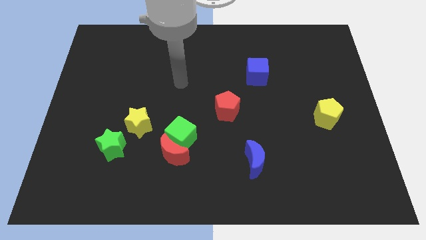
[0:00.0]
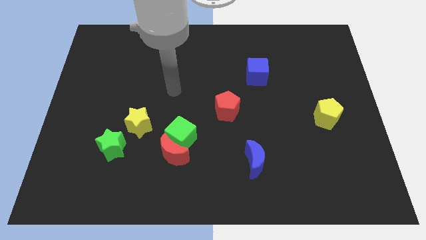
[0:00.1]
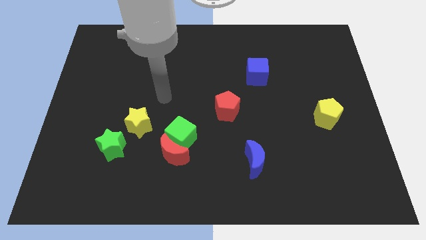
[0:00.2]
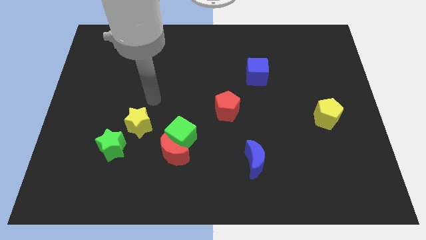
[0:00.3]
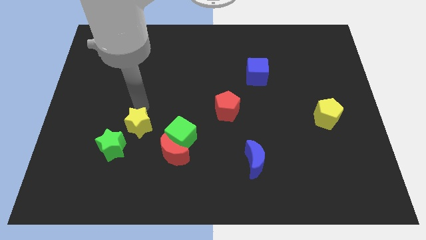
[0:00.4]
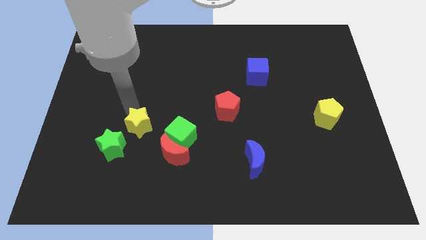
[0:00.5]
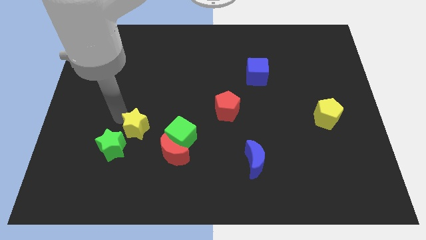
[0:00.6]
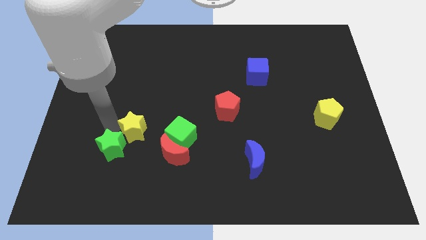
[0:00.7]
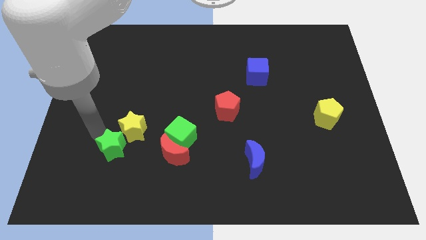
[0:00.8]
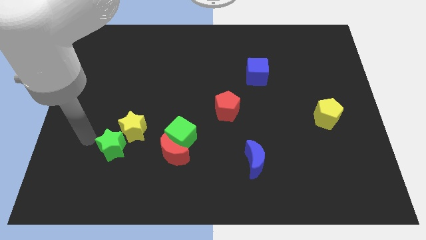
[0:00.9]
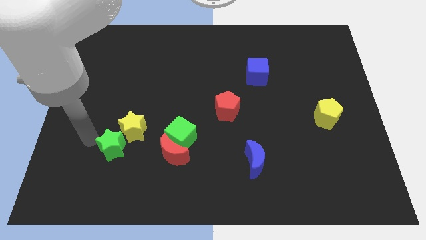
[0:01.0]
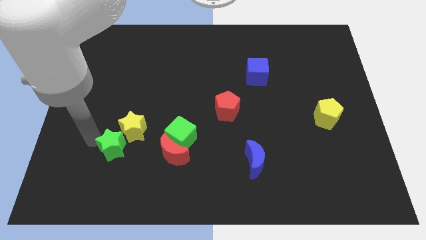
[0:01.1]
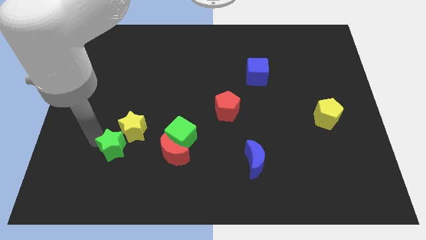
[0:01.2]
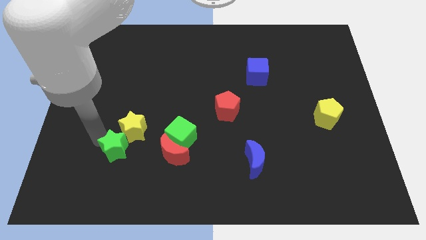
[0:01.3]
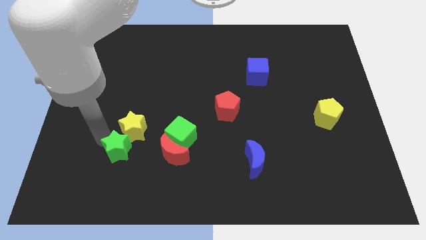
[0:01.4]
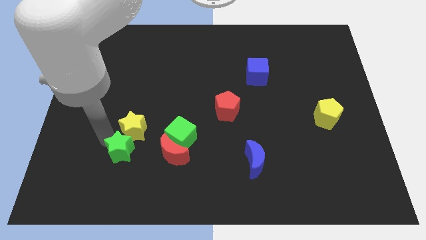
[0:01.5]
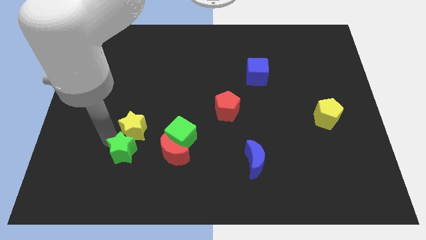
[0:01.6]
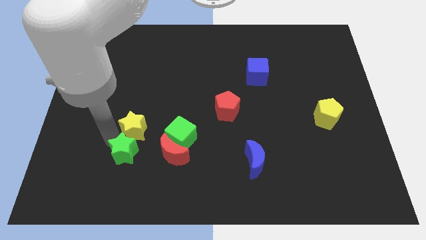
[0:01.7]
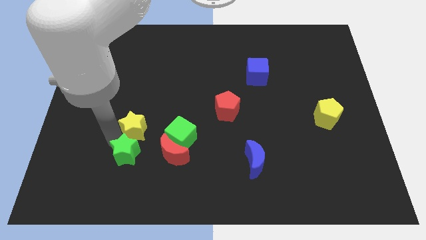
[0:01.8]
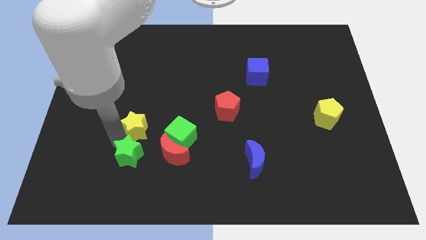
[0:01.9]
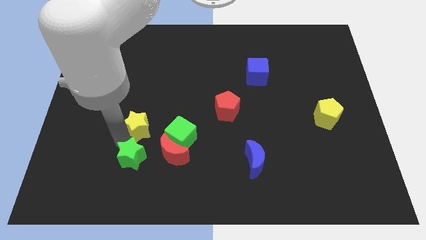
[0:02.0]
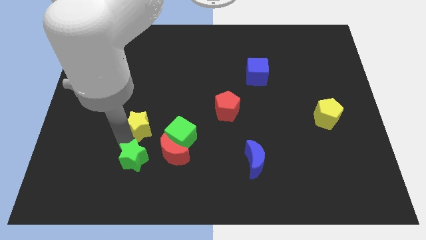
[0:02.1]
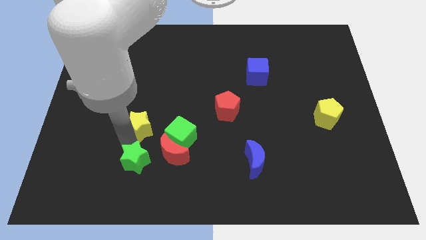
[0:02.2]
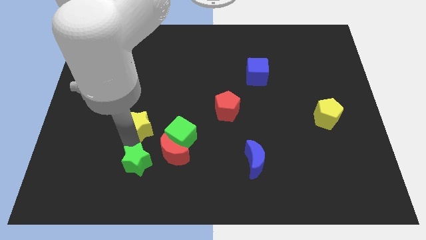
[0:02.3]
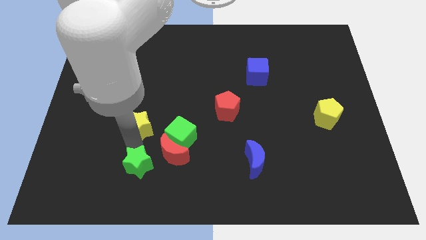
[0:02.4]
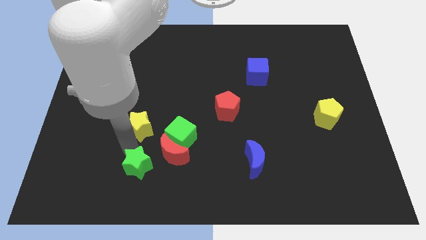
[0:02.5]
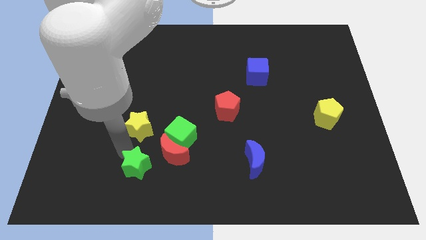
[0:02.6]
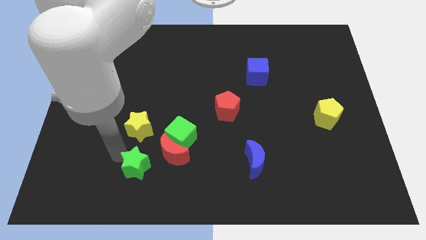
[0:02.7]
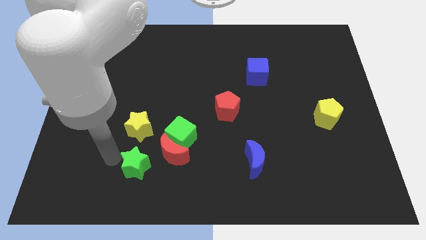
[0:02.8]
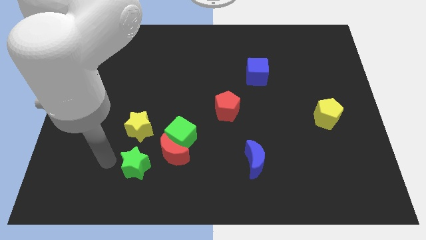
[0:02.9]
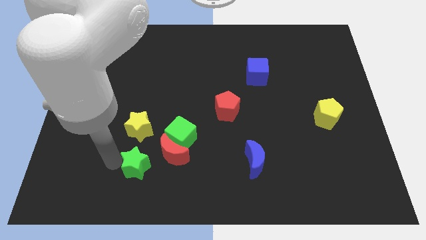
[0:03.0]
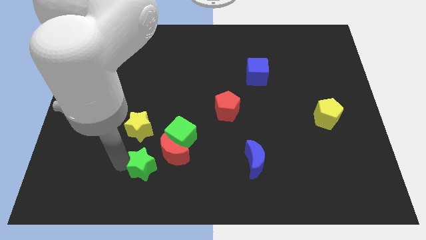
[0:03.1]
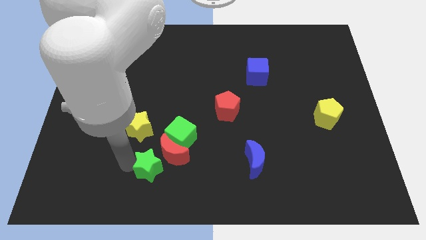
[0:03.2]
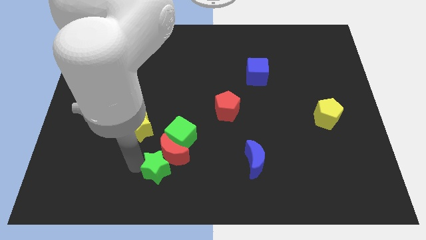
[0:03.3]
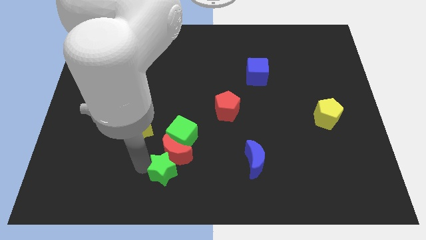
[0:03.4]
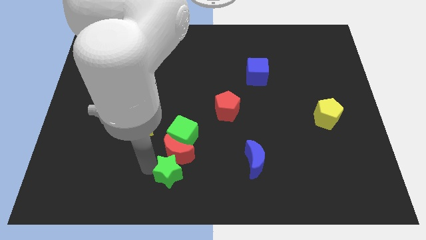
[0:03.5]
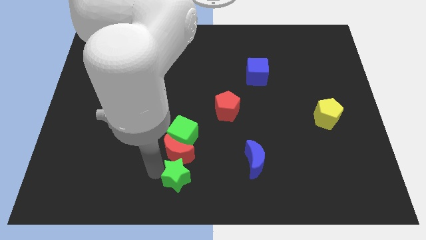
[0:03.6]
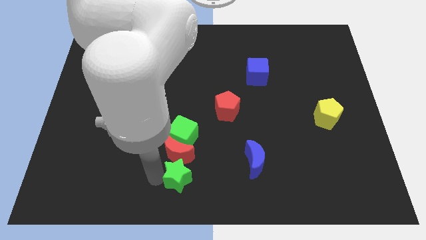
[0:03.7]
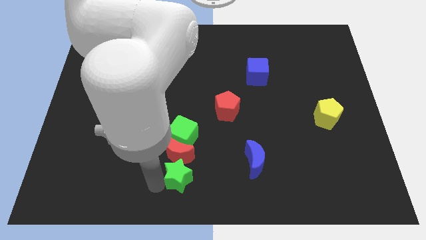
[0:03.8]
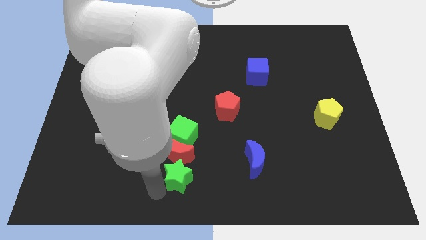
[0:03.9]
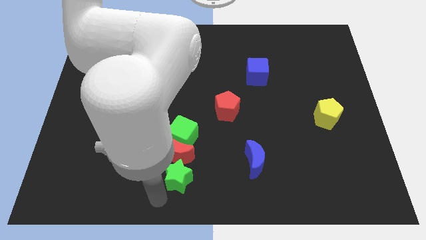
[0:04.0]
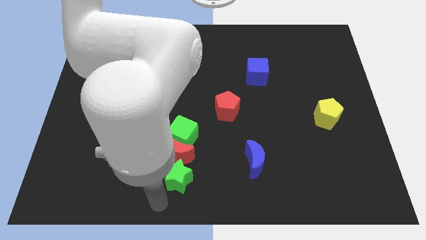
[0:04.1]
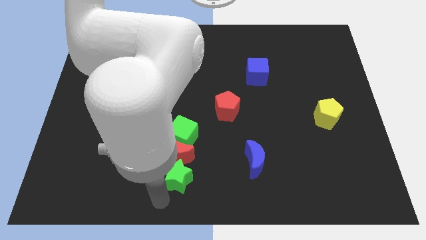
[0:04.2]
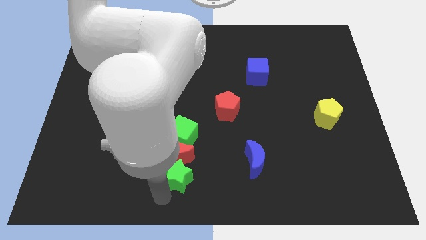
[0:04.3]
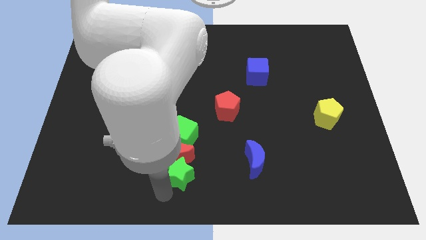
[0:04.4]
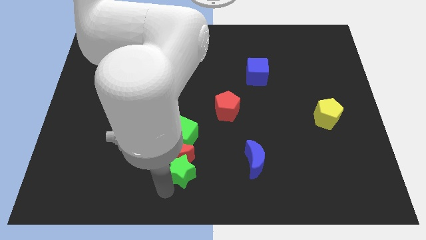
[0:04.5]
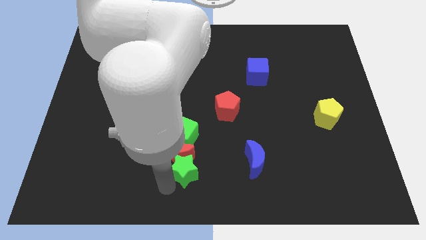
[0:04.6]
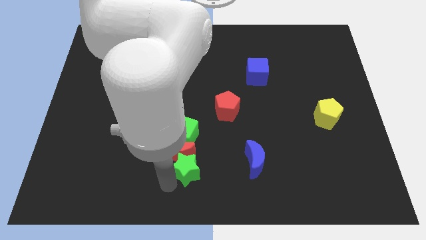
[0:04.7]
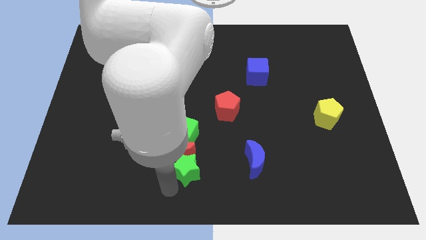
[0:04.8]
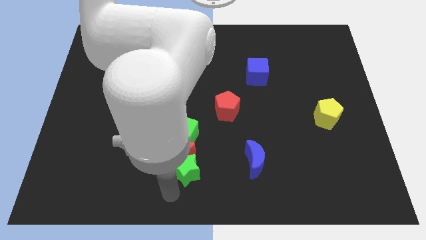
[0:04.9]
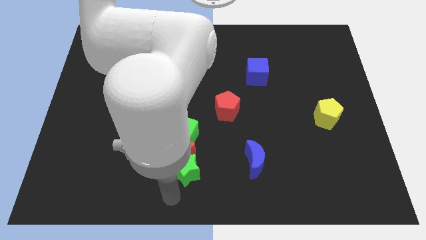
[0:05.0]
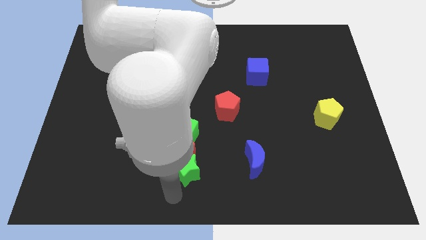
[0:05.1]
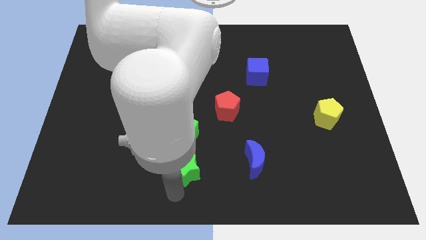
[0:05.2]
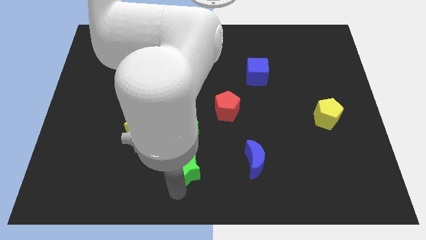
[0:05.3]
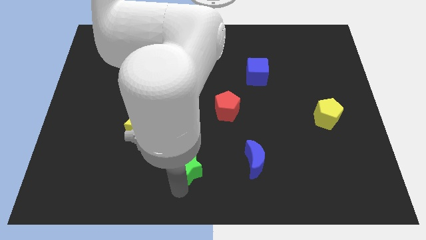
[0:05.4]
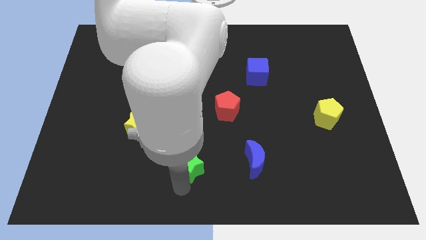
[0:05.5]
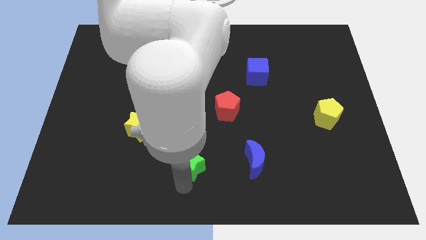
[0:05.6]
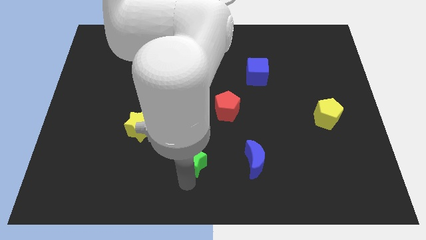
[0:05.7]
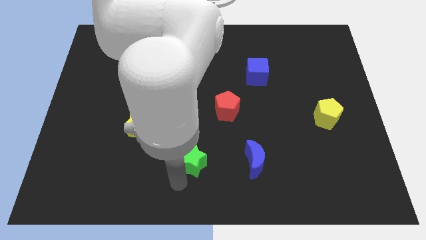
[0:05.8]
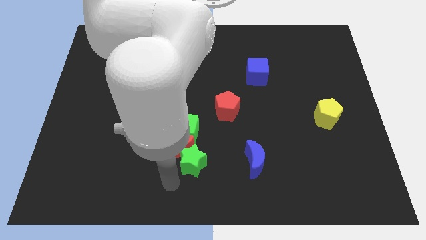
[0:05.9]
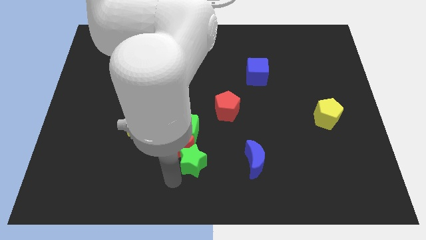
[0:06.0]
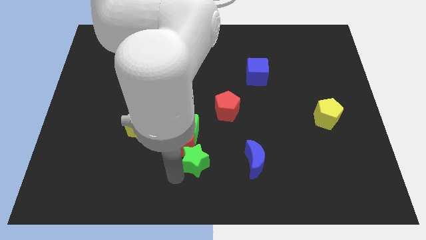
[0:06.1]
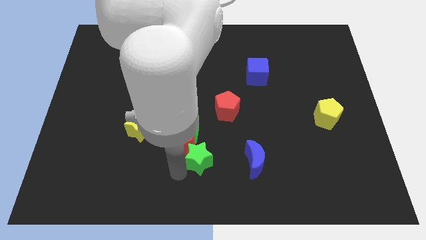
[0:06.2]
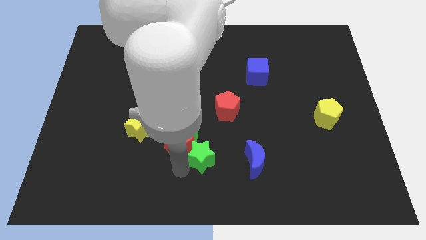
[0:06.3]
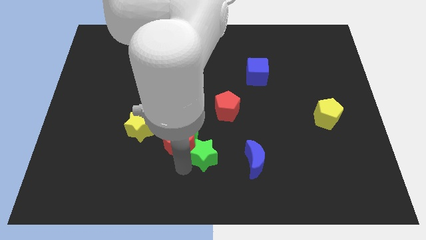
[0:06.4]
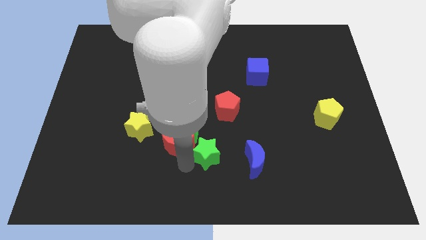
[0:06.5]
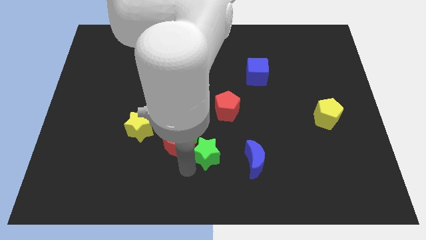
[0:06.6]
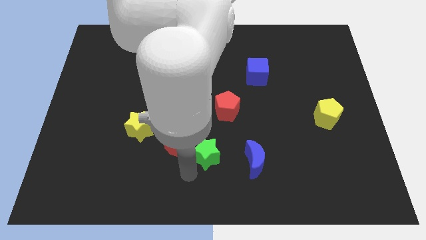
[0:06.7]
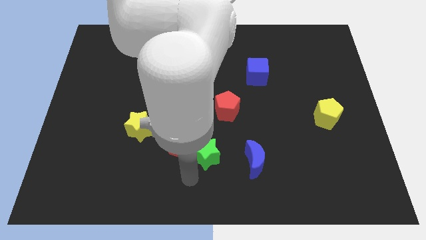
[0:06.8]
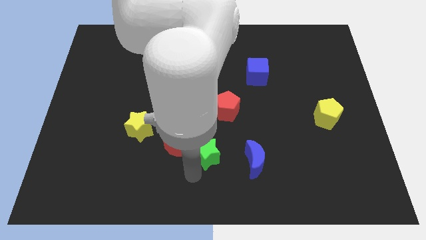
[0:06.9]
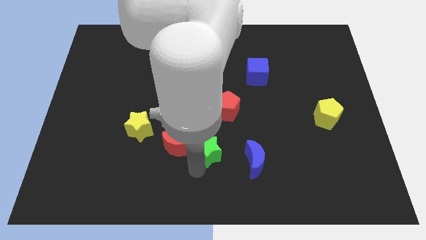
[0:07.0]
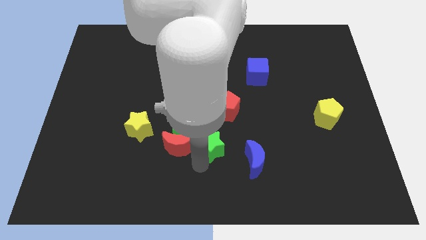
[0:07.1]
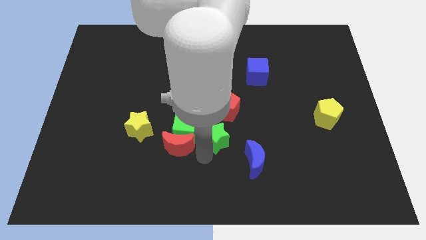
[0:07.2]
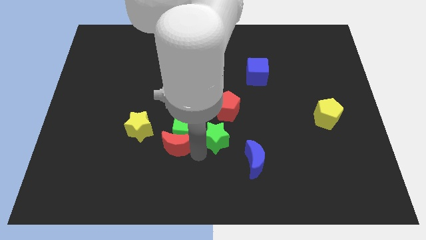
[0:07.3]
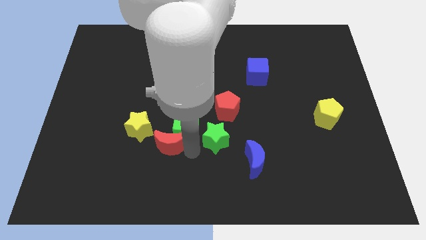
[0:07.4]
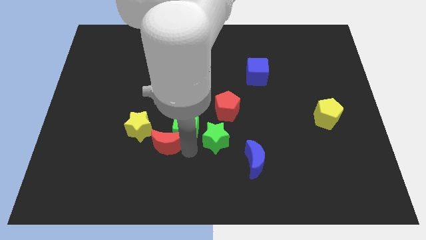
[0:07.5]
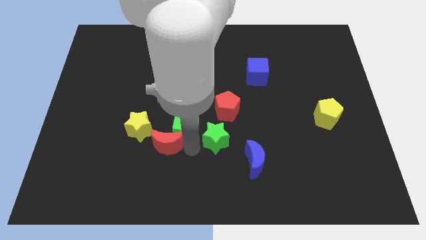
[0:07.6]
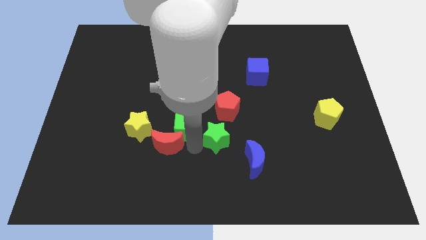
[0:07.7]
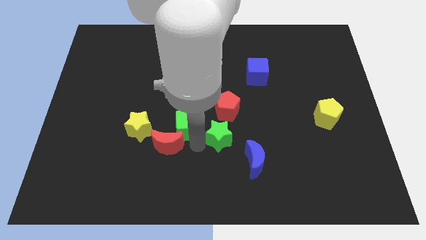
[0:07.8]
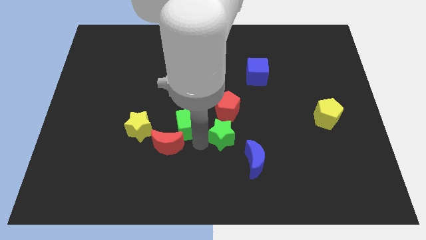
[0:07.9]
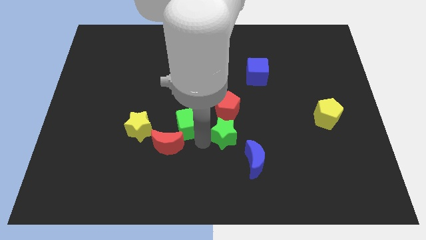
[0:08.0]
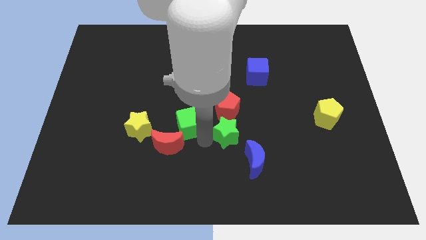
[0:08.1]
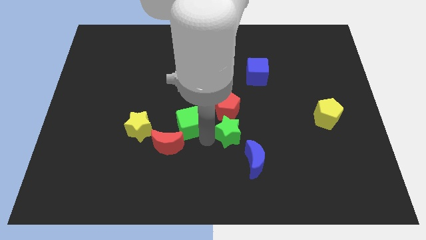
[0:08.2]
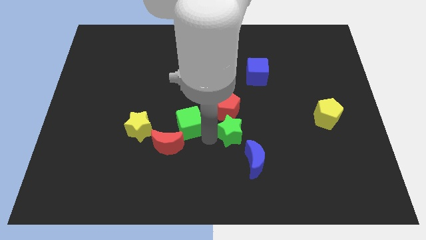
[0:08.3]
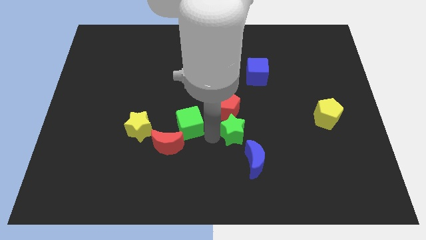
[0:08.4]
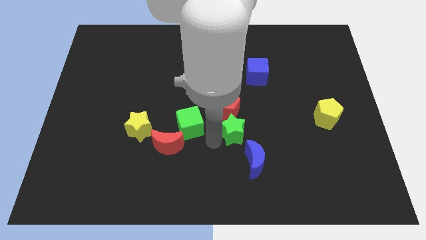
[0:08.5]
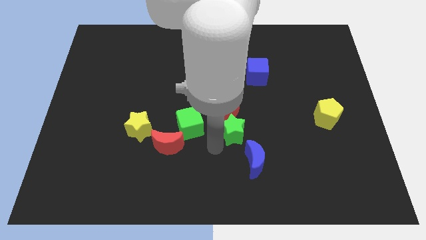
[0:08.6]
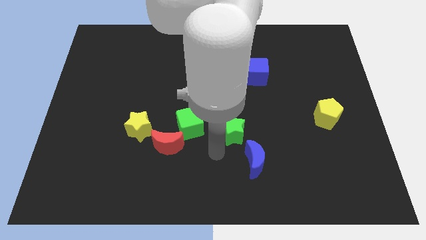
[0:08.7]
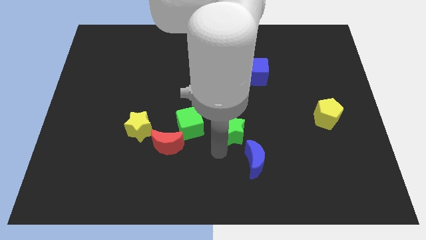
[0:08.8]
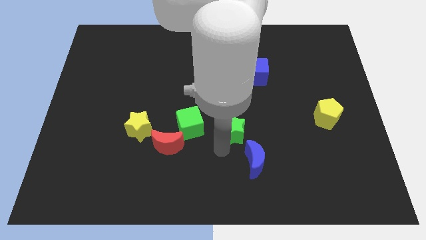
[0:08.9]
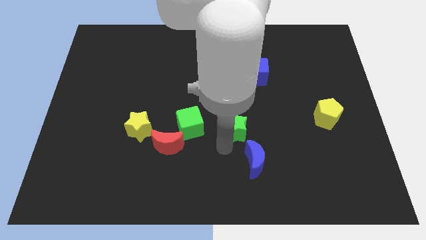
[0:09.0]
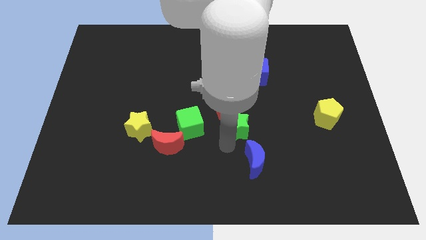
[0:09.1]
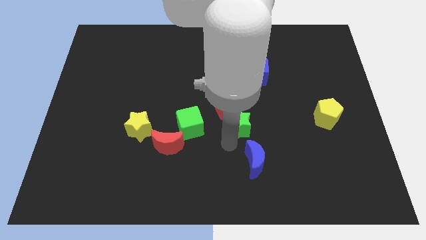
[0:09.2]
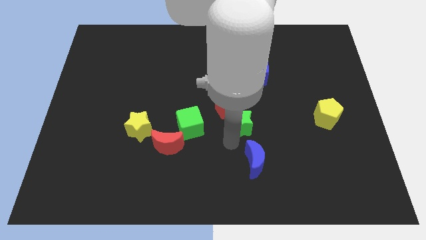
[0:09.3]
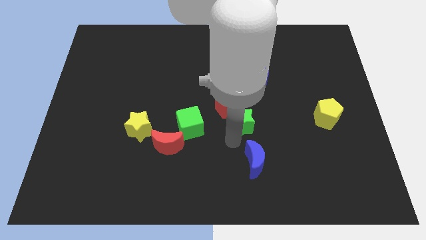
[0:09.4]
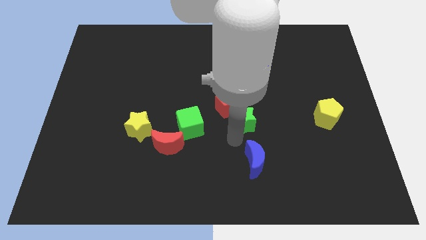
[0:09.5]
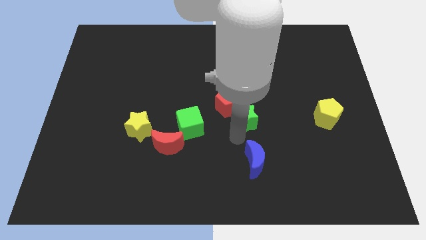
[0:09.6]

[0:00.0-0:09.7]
slide the green star below the blue cube
